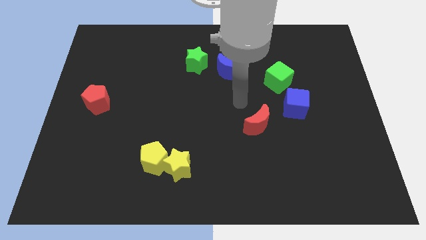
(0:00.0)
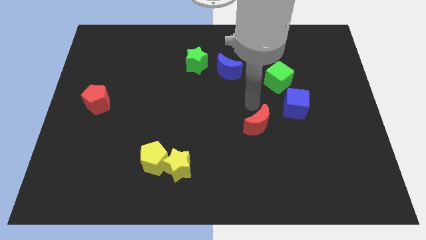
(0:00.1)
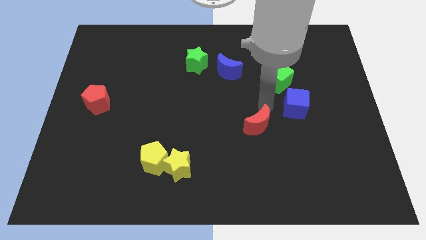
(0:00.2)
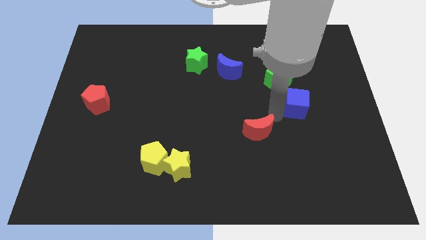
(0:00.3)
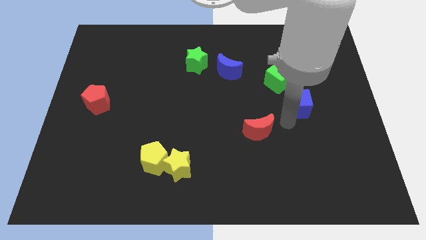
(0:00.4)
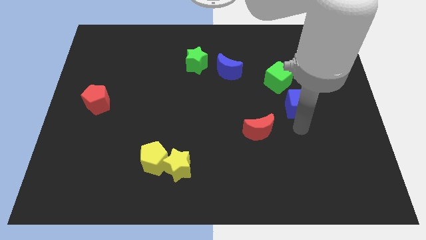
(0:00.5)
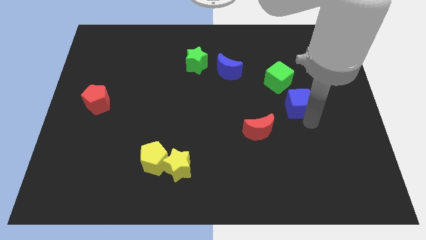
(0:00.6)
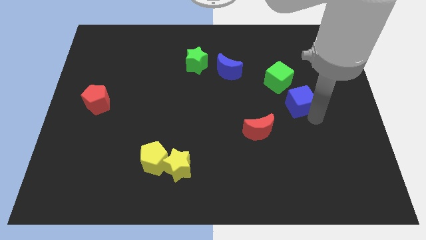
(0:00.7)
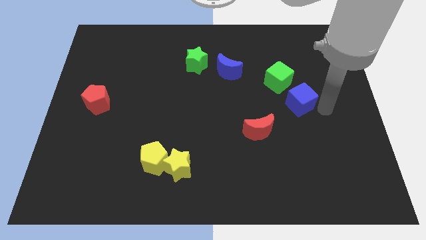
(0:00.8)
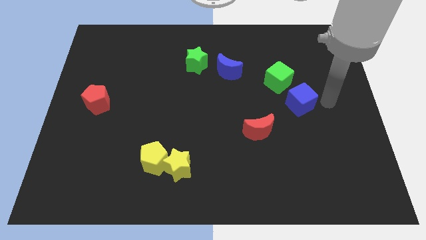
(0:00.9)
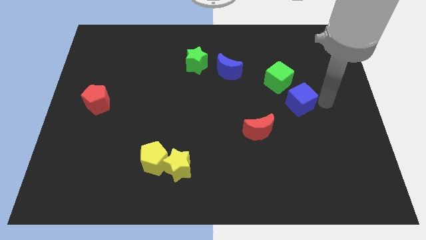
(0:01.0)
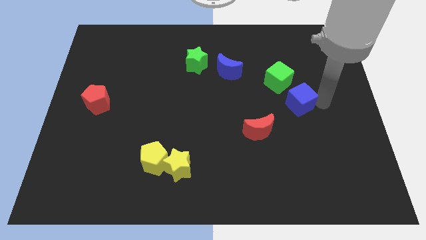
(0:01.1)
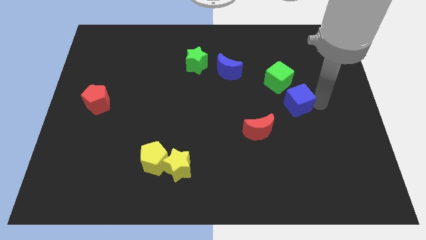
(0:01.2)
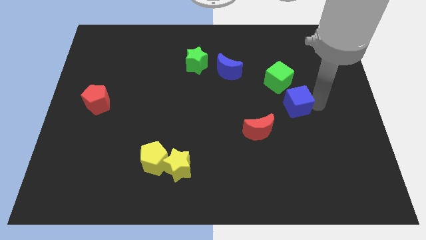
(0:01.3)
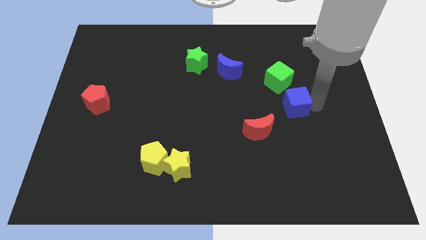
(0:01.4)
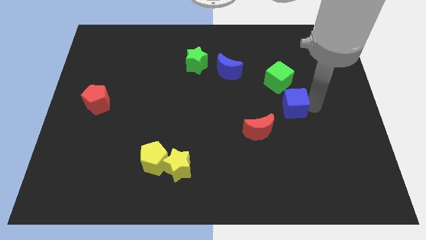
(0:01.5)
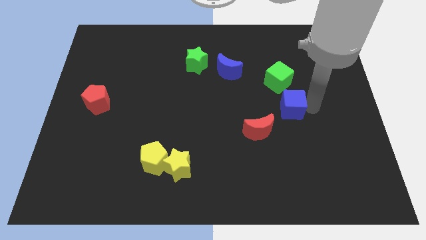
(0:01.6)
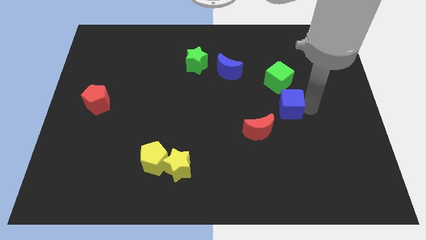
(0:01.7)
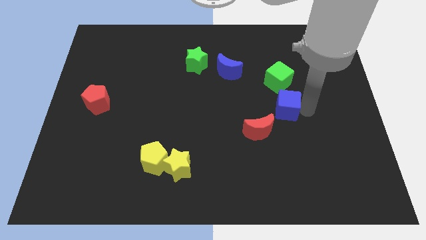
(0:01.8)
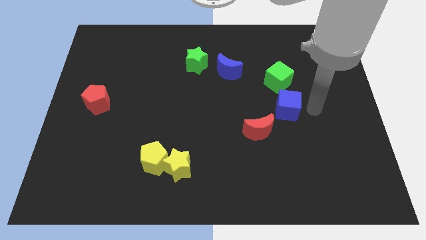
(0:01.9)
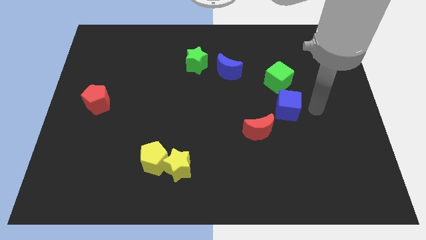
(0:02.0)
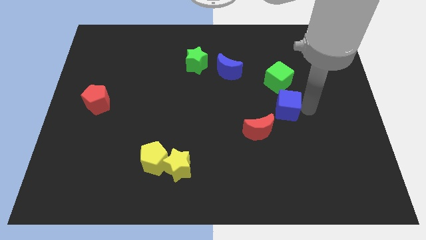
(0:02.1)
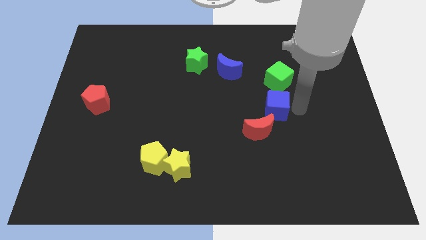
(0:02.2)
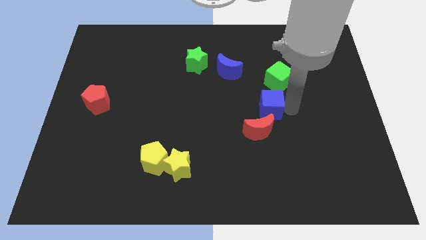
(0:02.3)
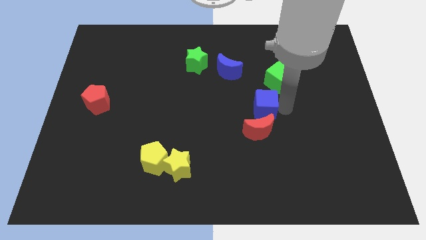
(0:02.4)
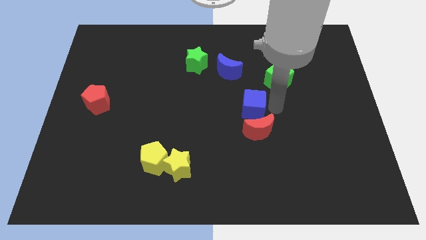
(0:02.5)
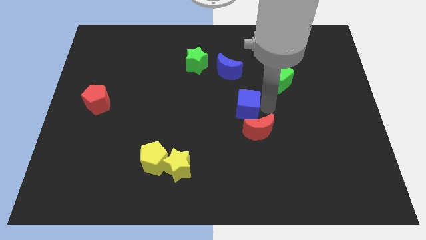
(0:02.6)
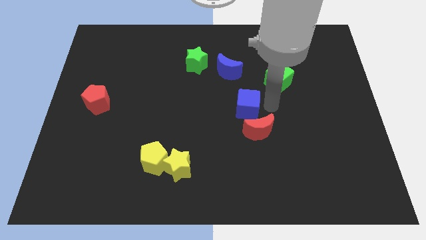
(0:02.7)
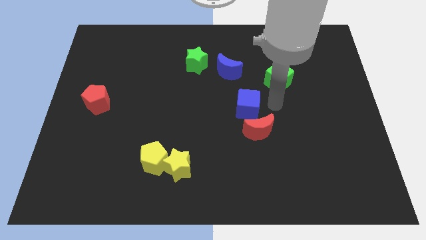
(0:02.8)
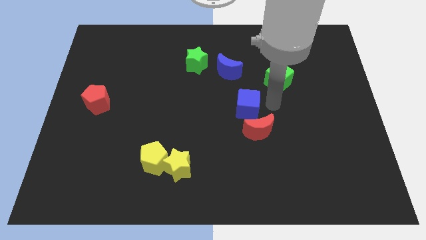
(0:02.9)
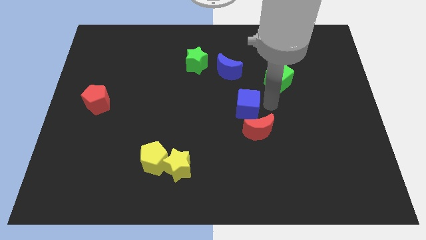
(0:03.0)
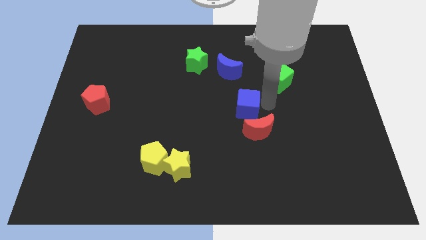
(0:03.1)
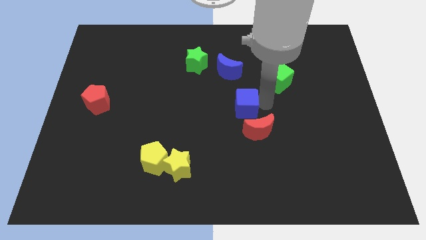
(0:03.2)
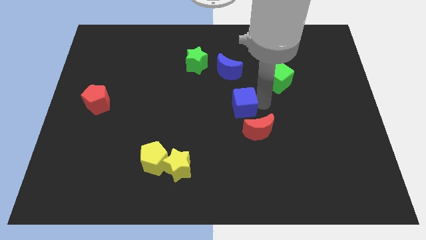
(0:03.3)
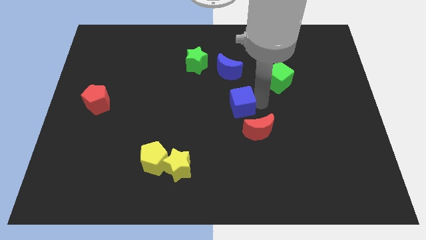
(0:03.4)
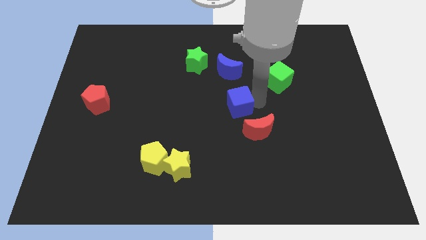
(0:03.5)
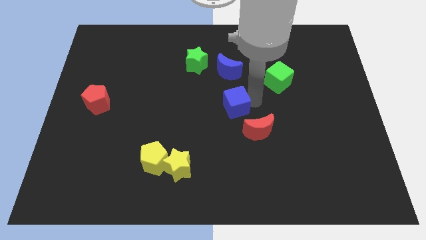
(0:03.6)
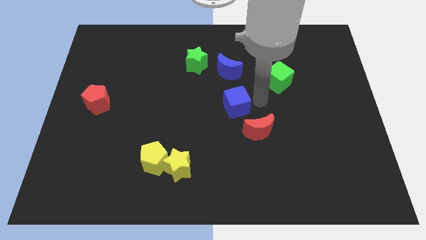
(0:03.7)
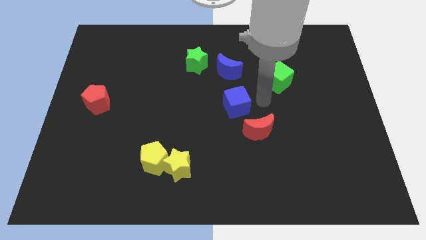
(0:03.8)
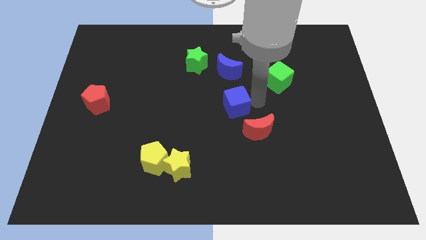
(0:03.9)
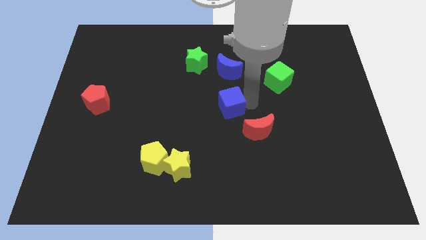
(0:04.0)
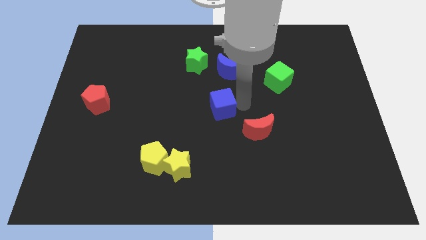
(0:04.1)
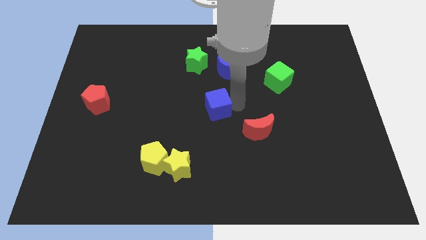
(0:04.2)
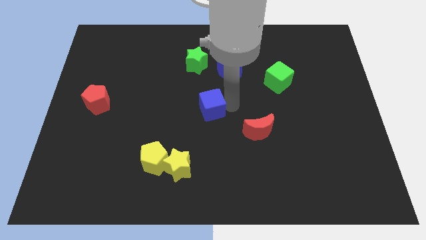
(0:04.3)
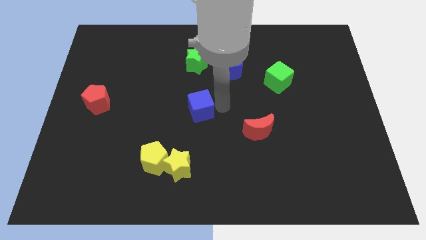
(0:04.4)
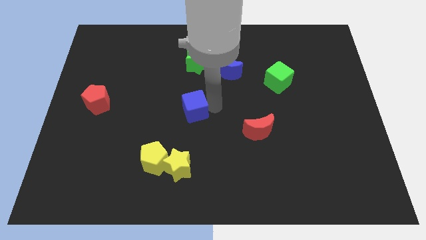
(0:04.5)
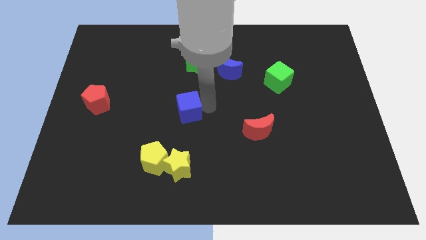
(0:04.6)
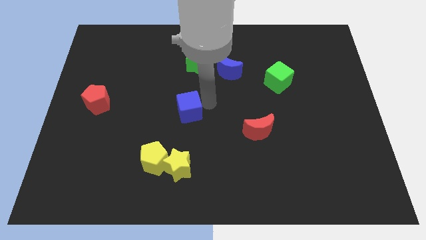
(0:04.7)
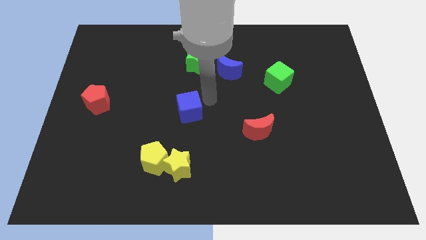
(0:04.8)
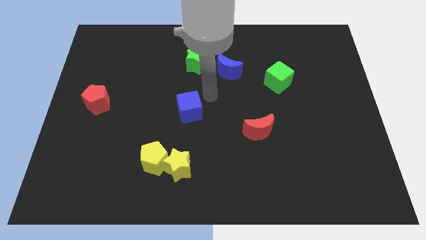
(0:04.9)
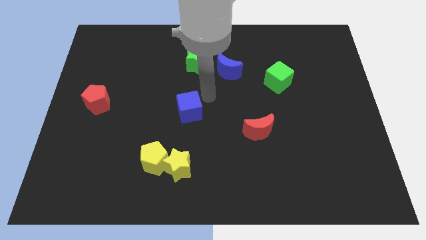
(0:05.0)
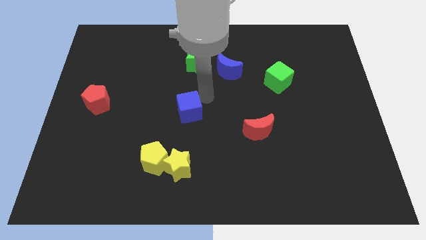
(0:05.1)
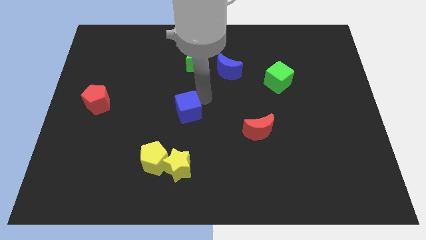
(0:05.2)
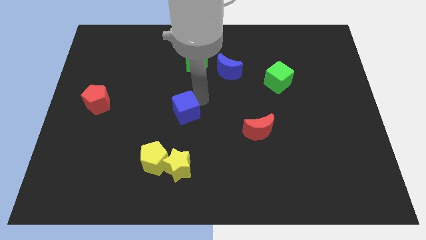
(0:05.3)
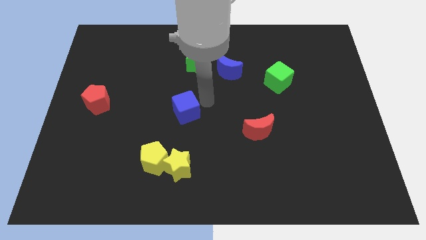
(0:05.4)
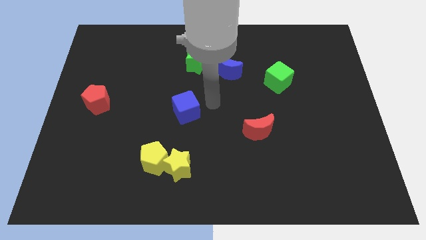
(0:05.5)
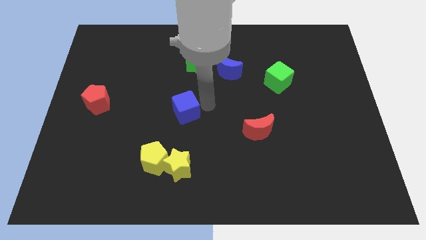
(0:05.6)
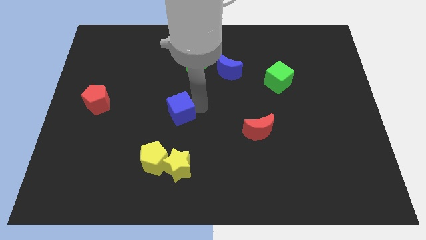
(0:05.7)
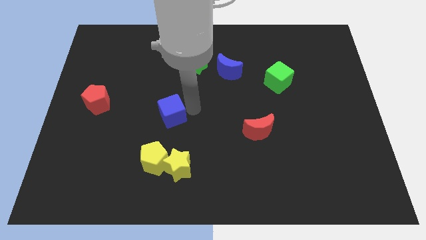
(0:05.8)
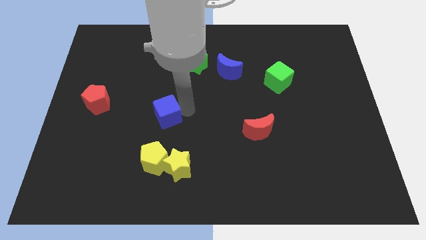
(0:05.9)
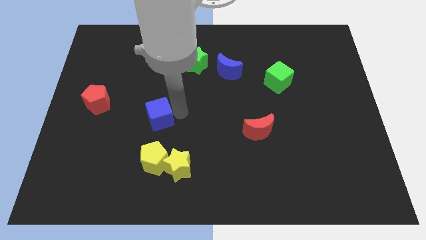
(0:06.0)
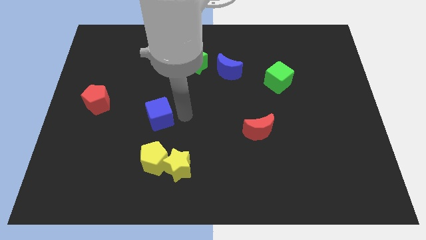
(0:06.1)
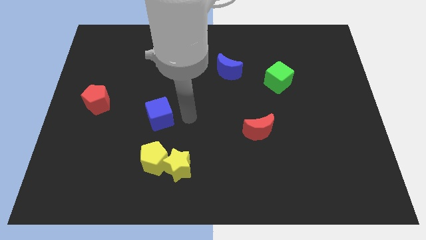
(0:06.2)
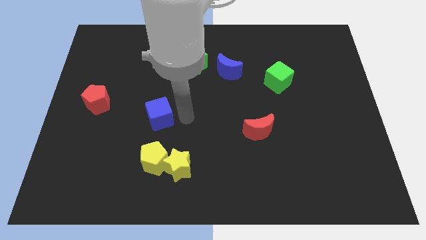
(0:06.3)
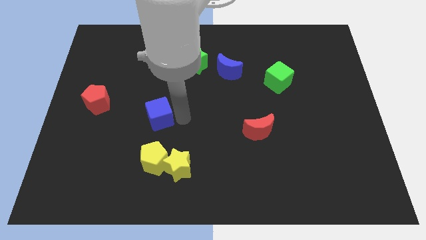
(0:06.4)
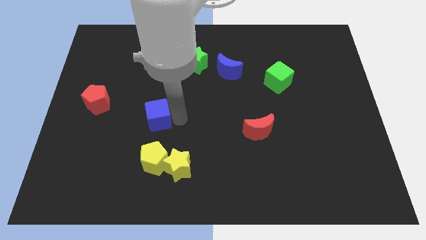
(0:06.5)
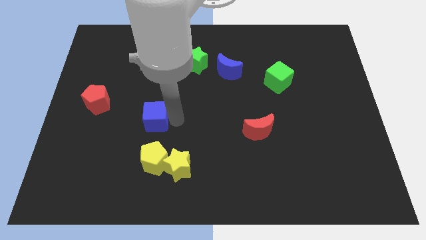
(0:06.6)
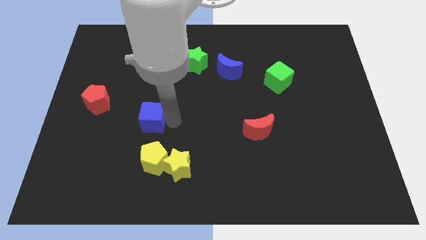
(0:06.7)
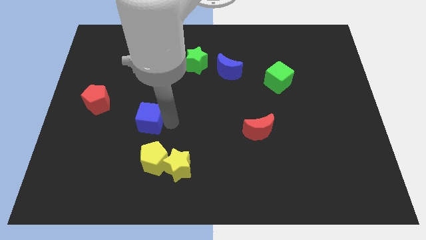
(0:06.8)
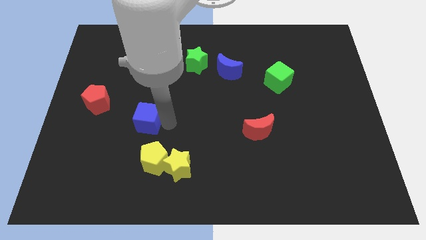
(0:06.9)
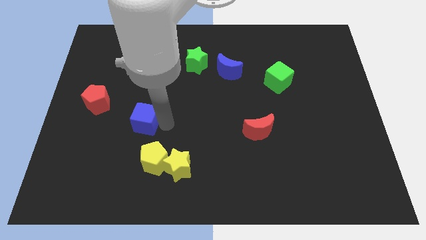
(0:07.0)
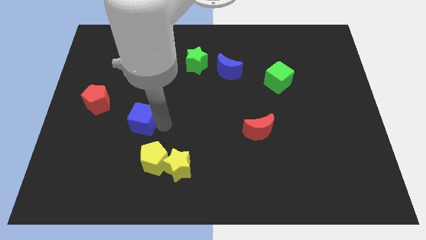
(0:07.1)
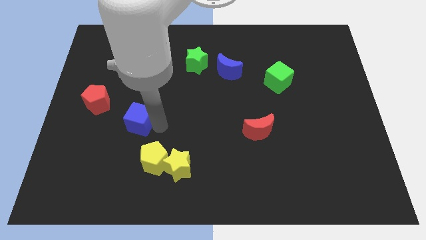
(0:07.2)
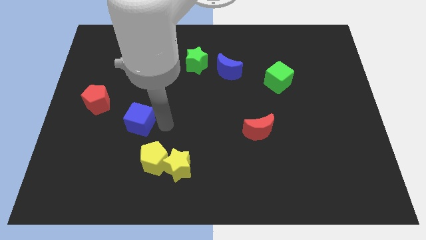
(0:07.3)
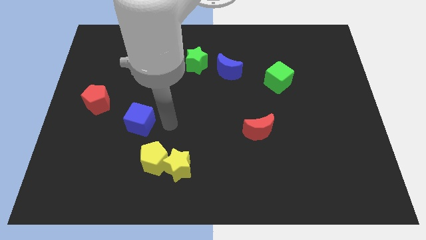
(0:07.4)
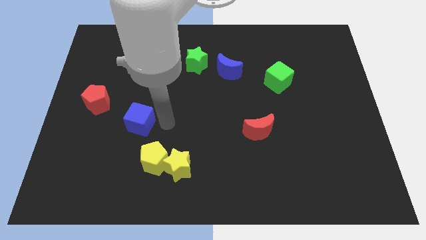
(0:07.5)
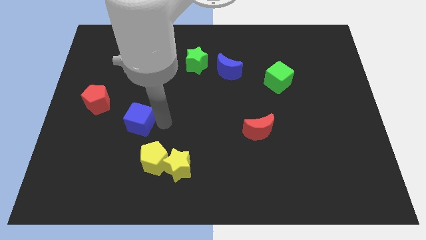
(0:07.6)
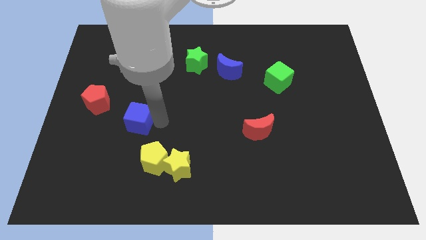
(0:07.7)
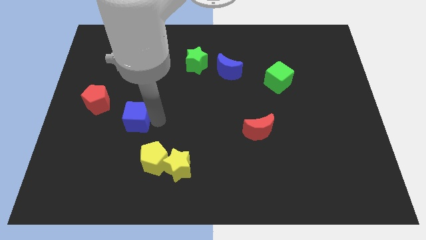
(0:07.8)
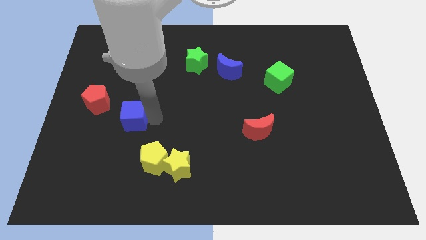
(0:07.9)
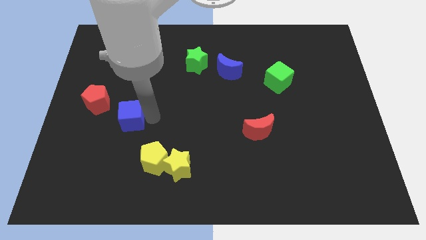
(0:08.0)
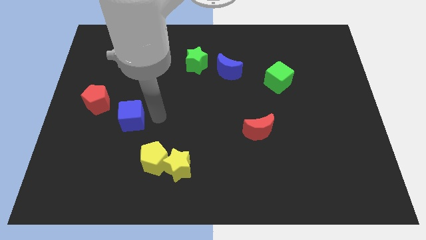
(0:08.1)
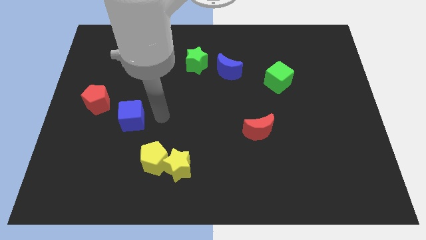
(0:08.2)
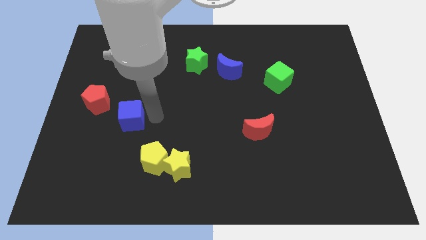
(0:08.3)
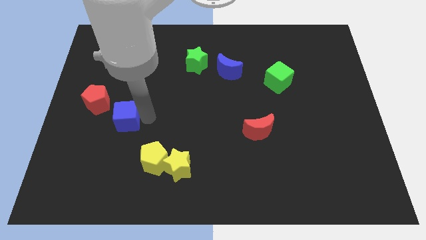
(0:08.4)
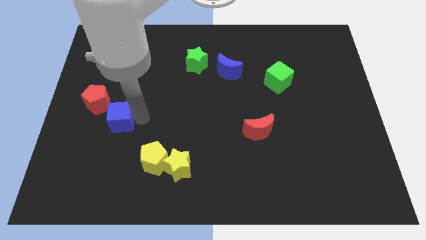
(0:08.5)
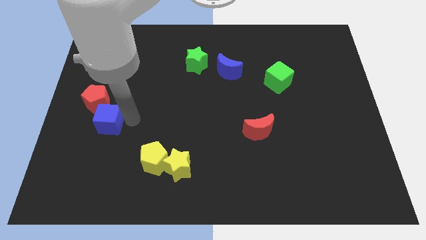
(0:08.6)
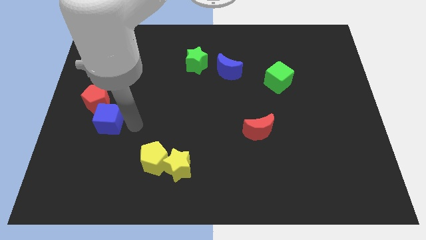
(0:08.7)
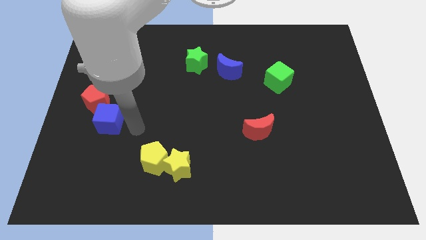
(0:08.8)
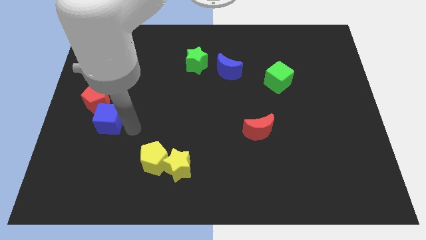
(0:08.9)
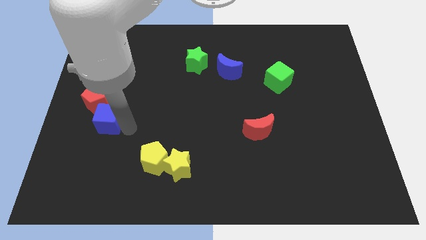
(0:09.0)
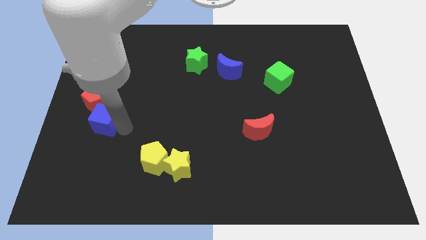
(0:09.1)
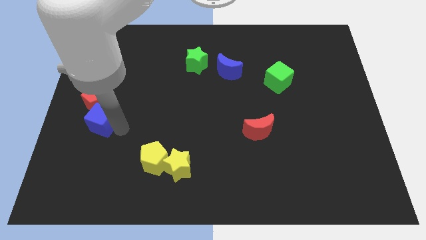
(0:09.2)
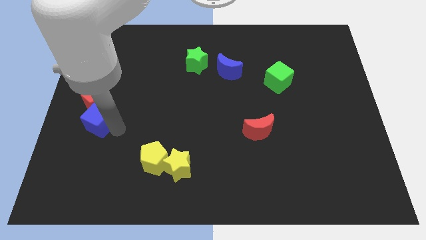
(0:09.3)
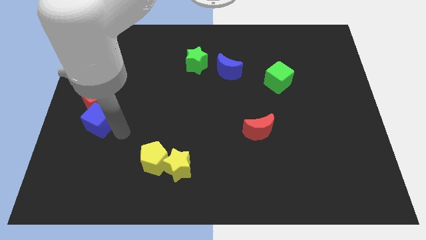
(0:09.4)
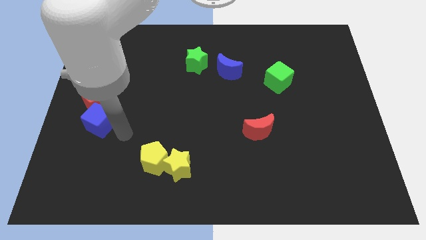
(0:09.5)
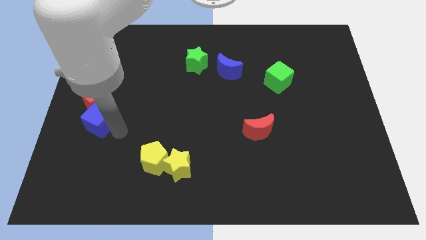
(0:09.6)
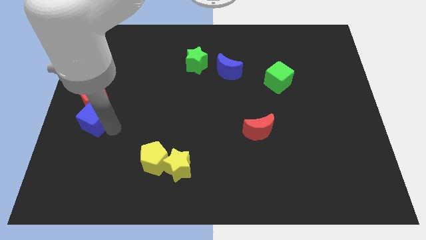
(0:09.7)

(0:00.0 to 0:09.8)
move the blue cube to the center left
